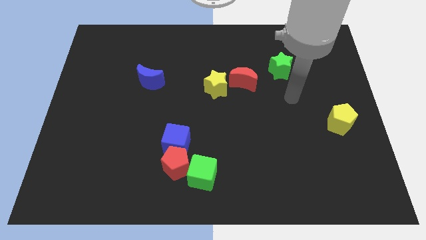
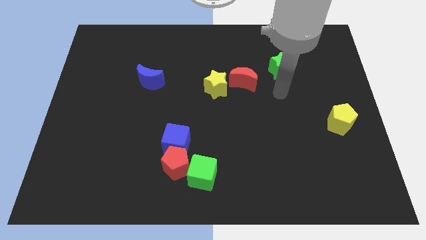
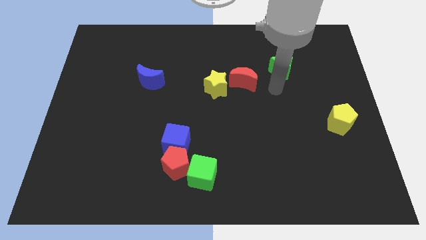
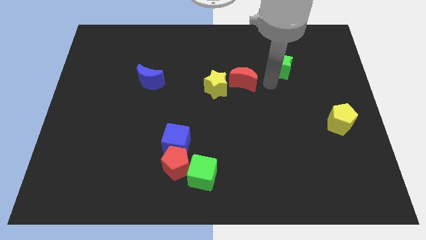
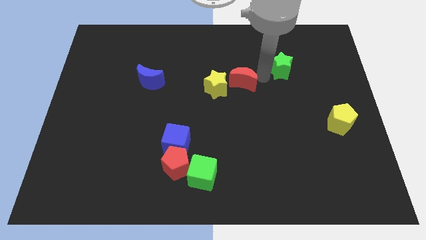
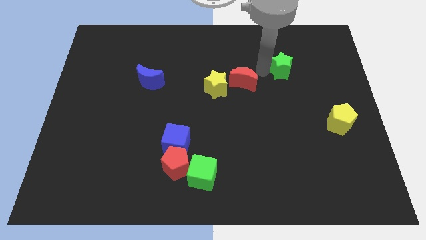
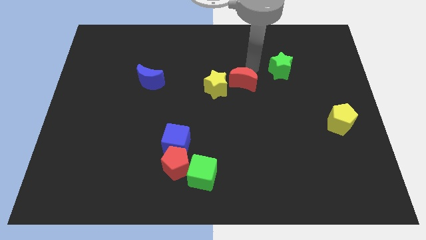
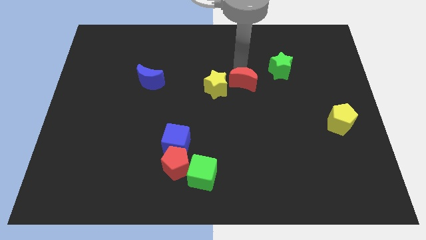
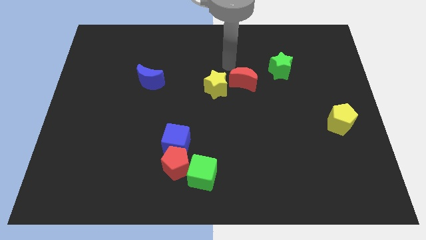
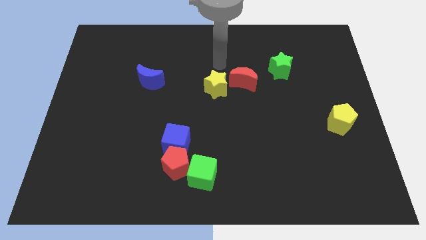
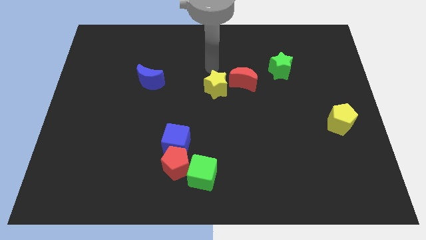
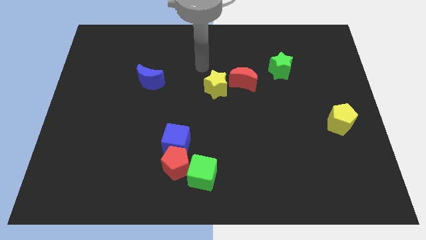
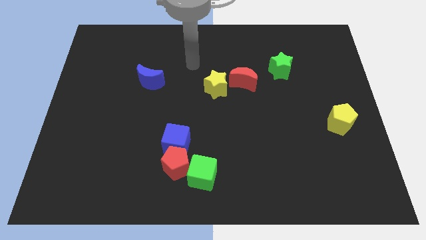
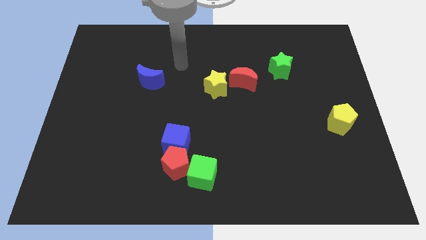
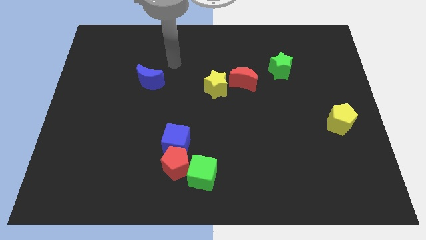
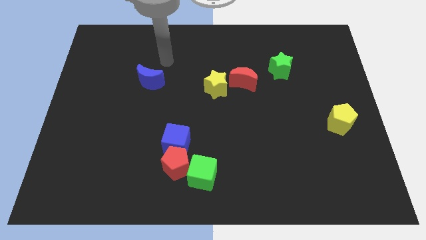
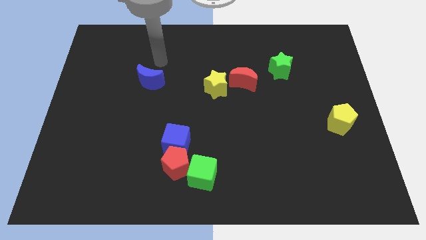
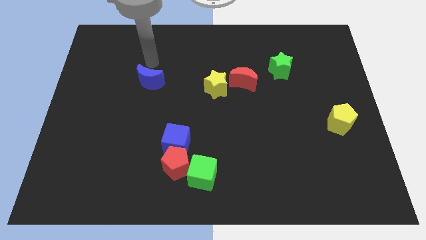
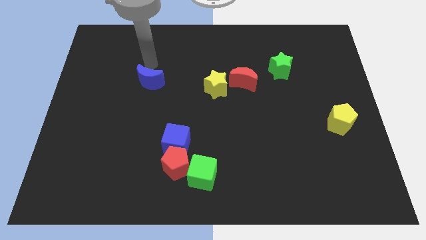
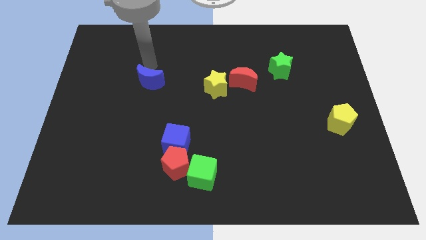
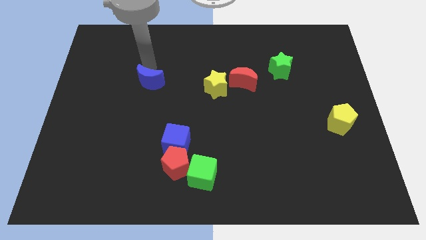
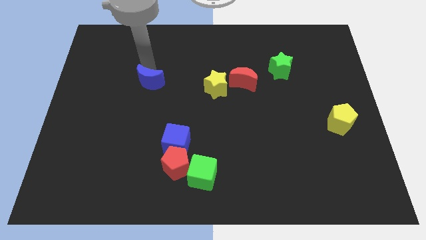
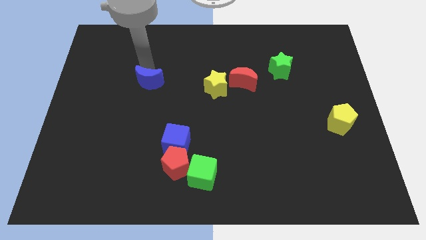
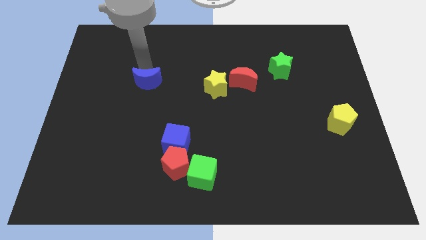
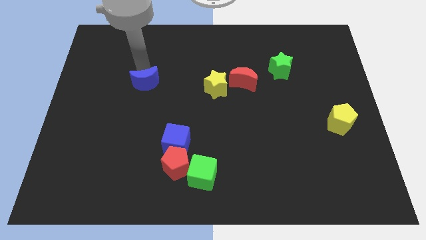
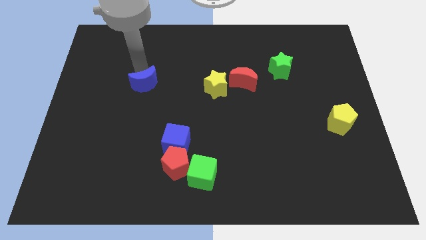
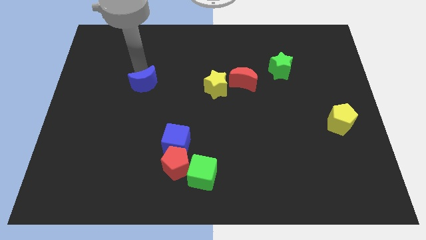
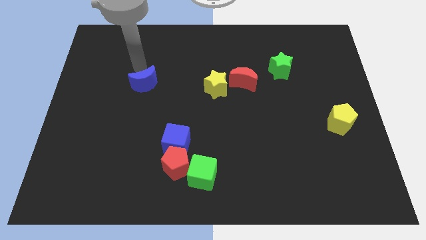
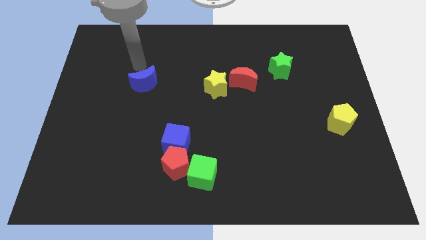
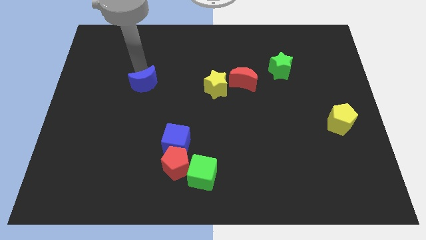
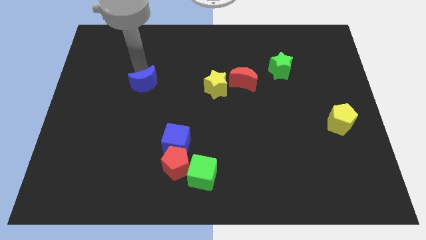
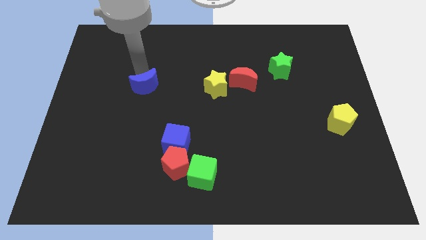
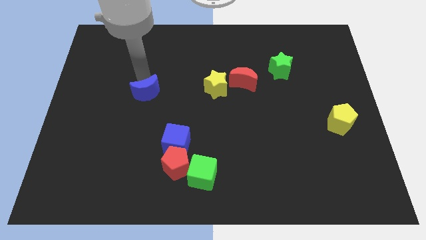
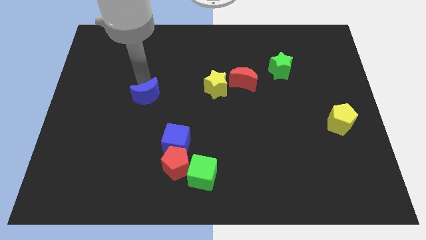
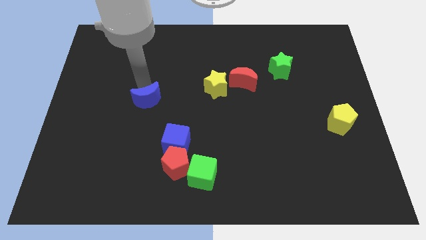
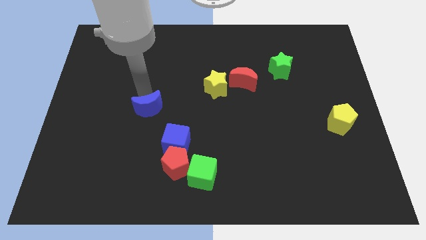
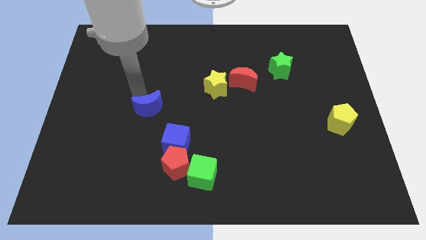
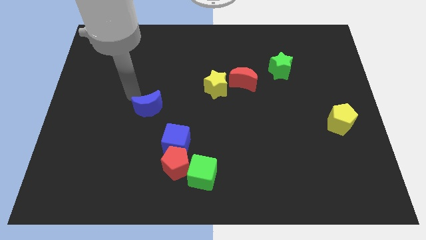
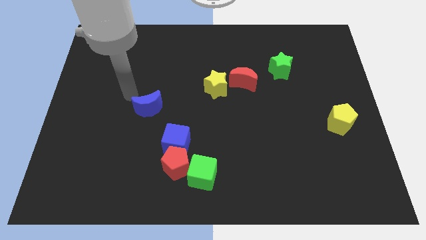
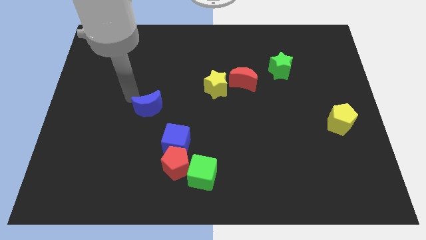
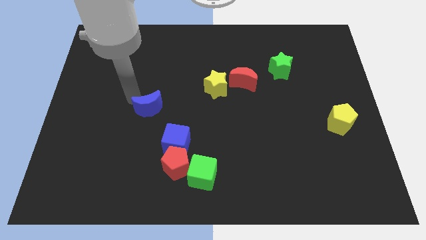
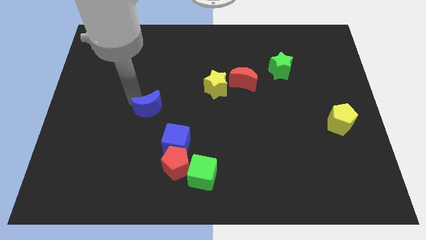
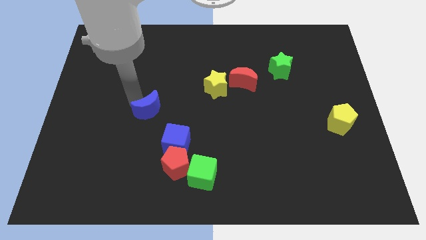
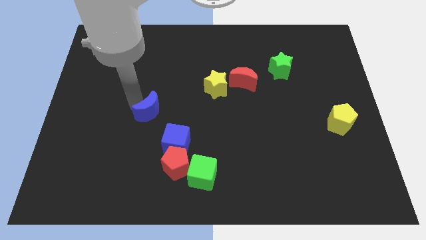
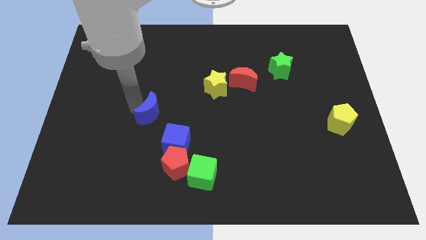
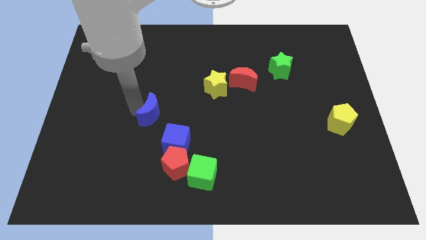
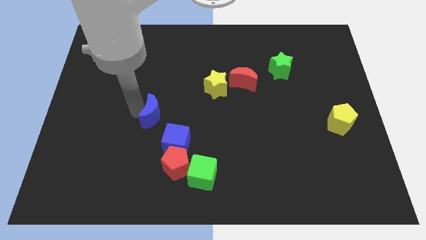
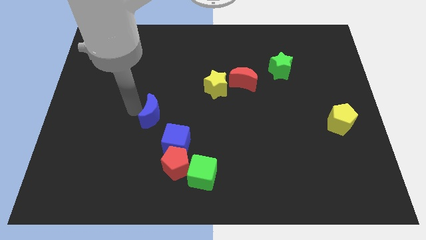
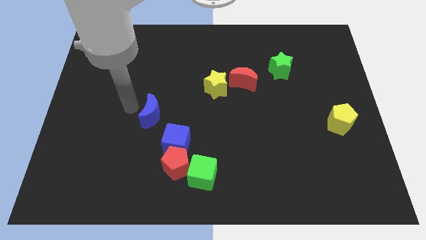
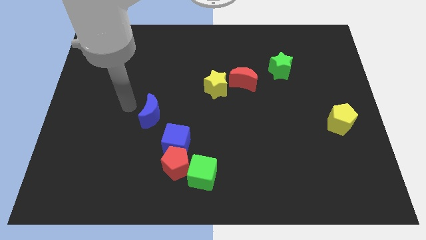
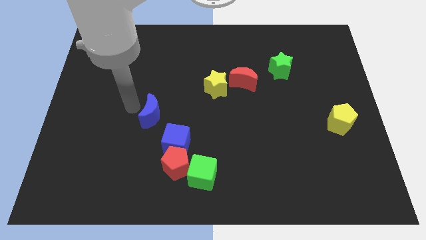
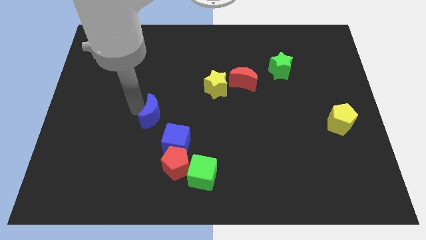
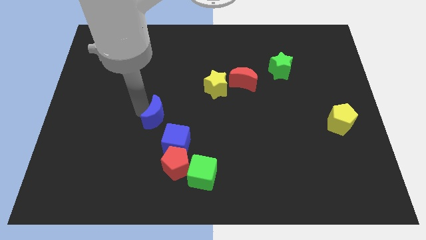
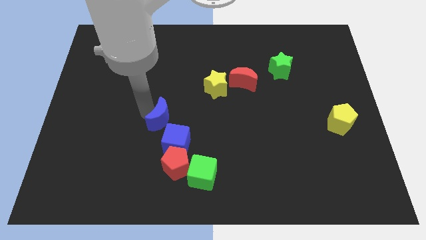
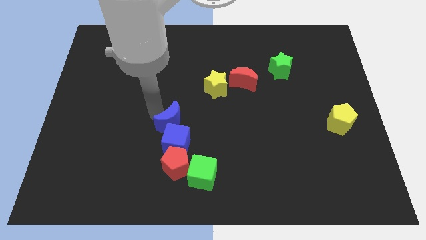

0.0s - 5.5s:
move the blue moon next to the blue cube

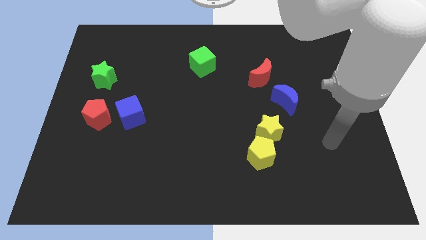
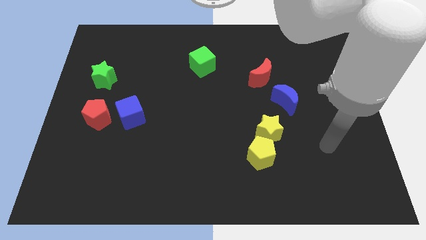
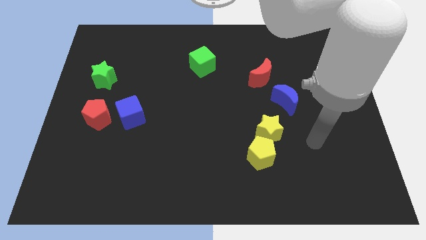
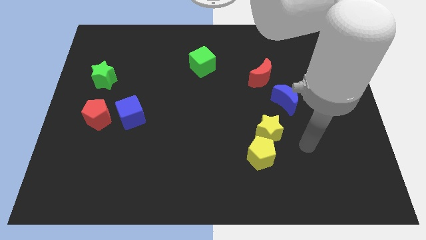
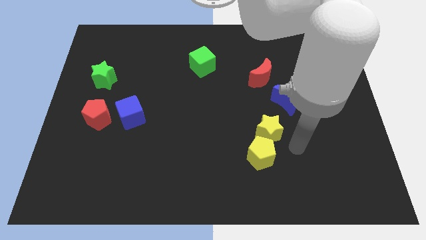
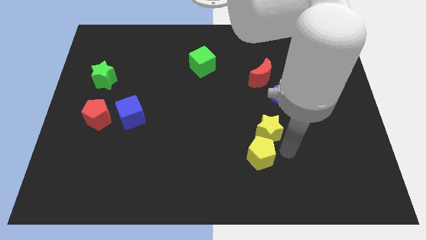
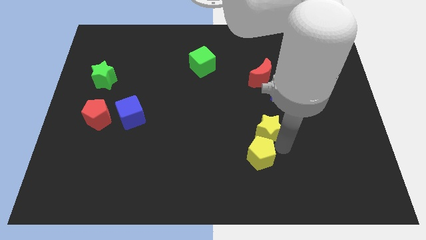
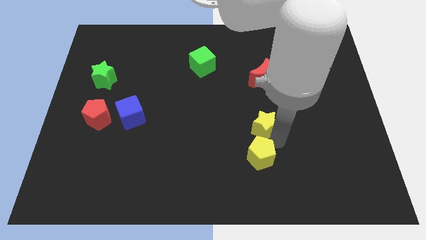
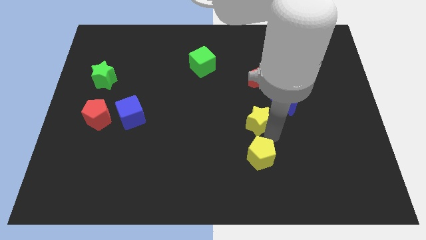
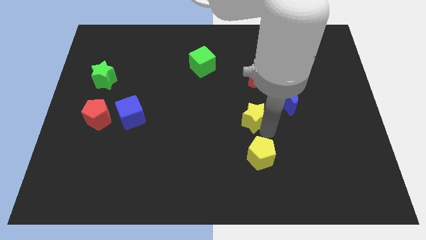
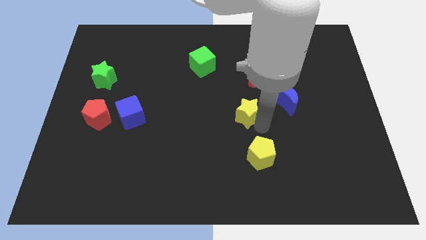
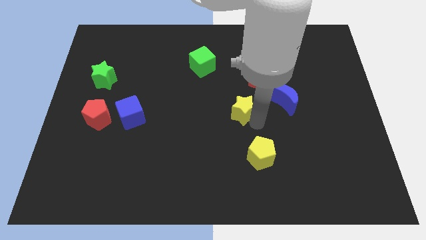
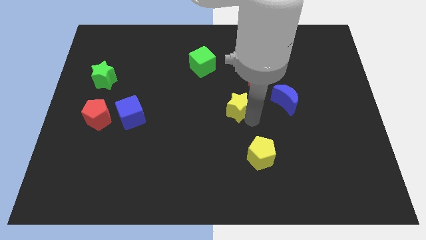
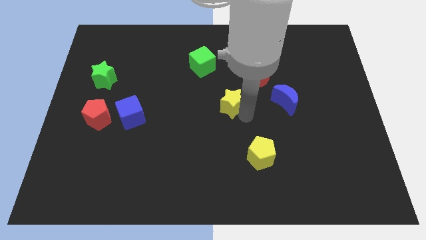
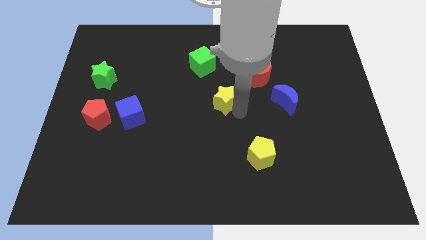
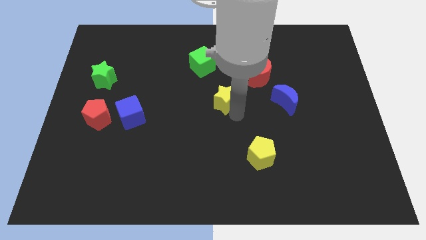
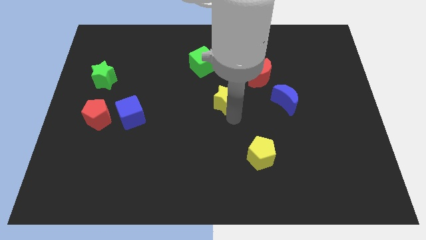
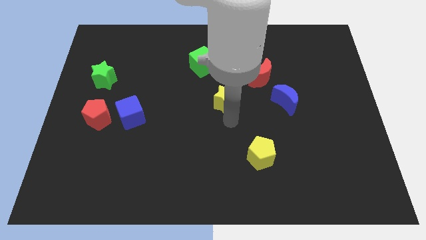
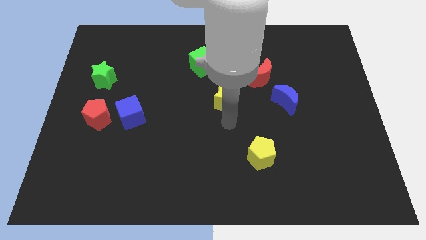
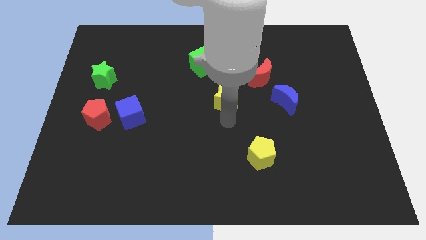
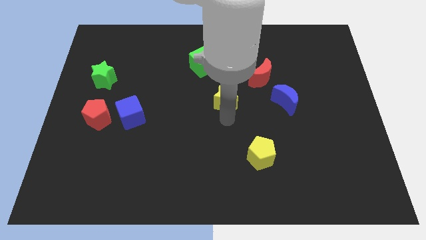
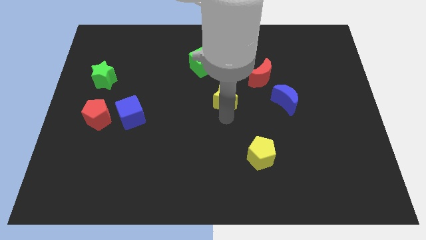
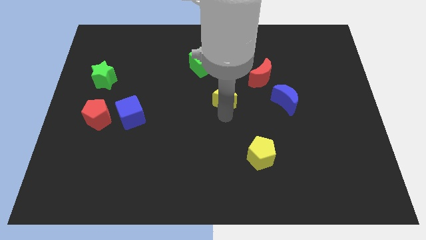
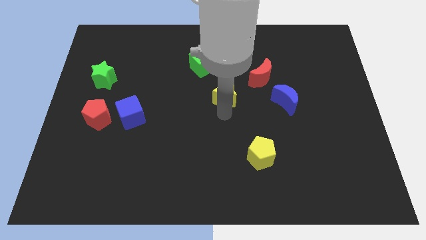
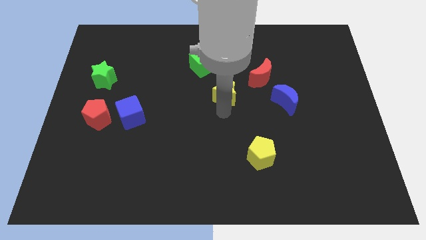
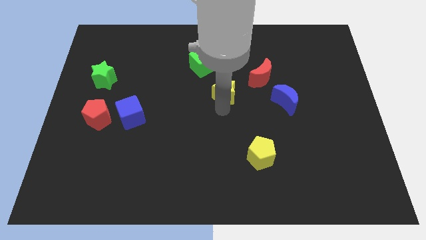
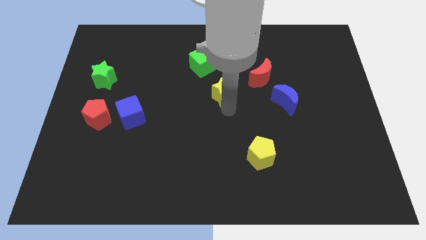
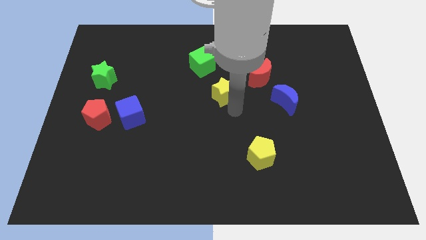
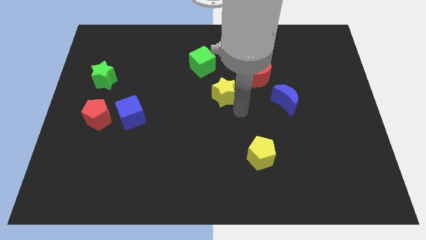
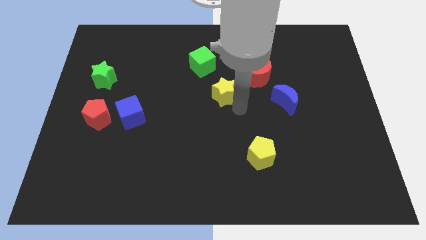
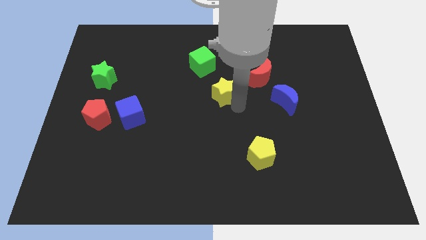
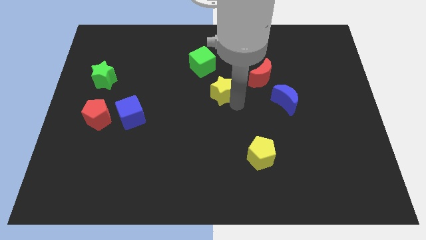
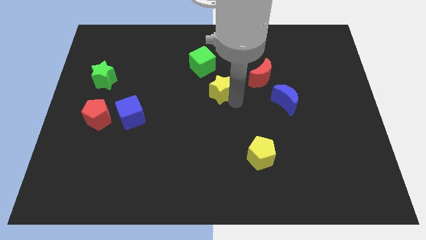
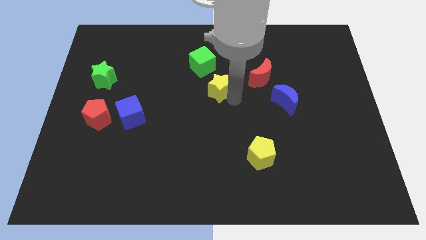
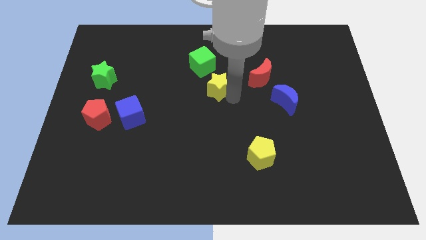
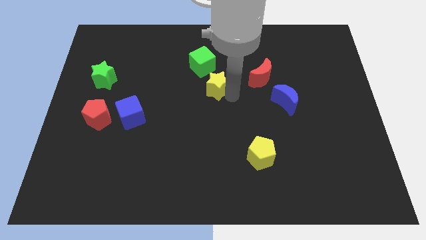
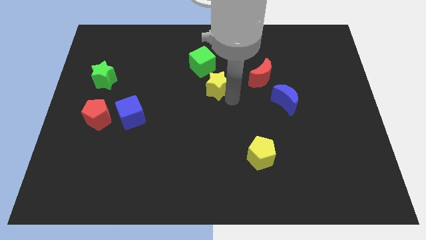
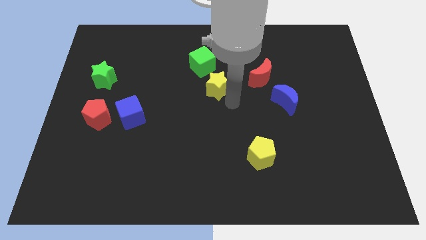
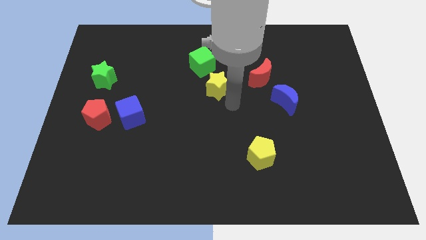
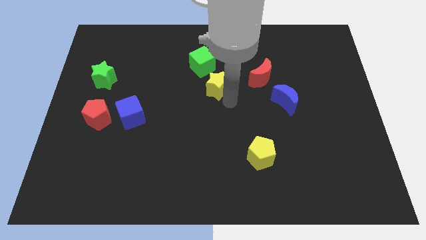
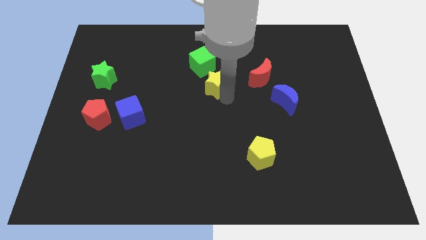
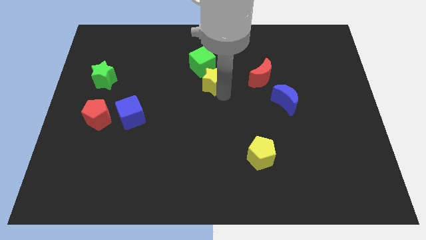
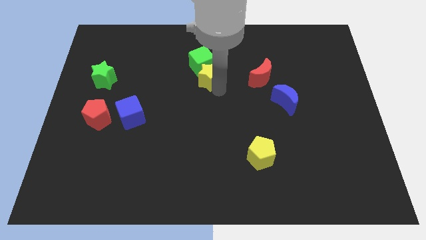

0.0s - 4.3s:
move the yellow star towards the green cube
